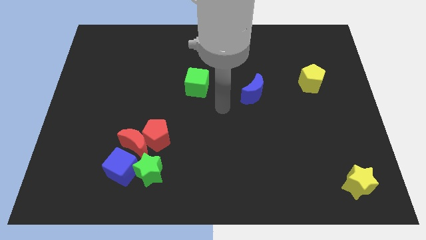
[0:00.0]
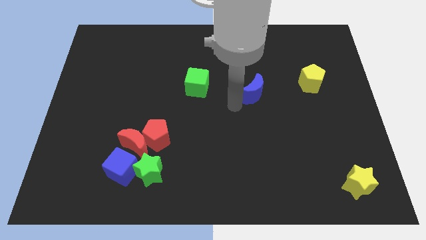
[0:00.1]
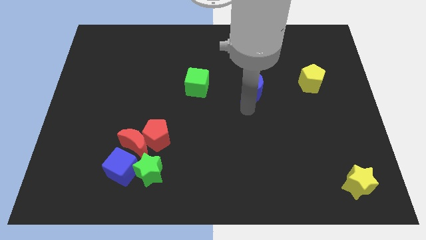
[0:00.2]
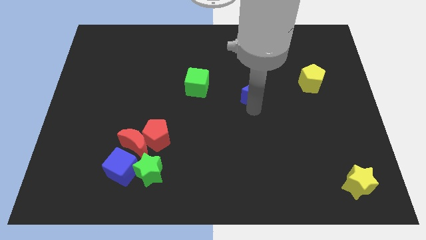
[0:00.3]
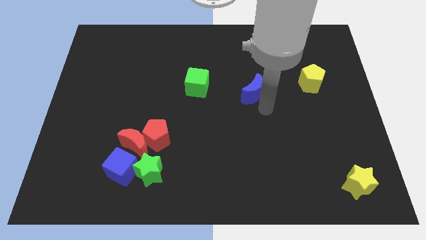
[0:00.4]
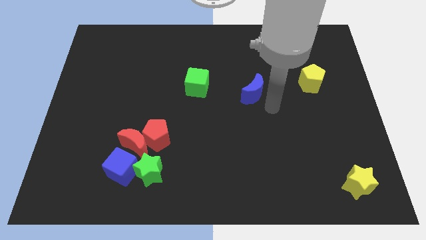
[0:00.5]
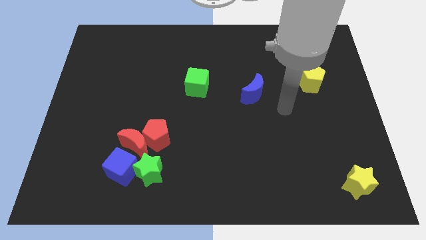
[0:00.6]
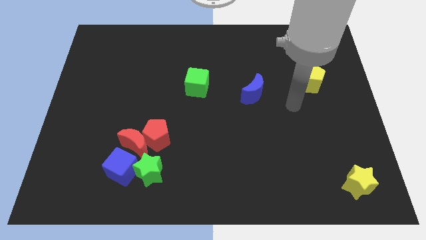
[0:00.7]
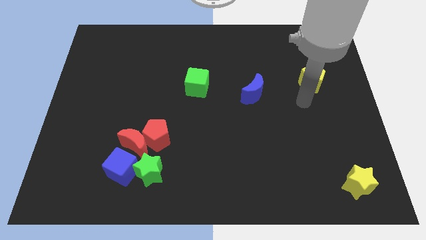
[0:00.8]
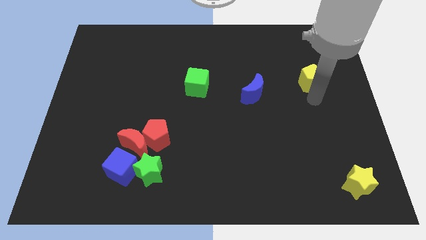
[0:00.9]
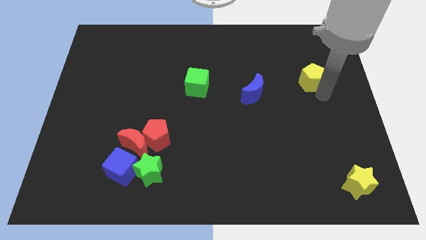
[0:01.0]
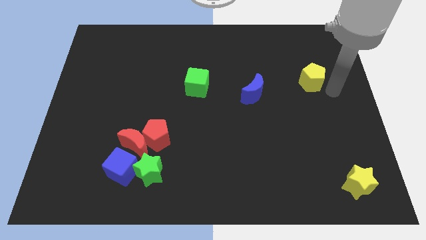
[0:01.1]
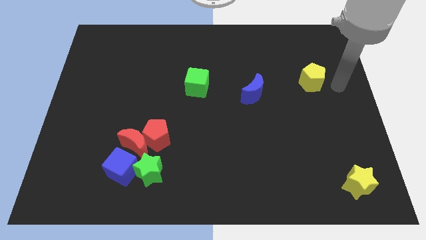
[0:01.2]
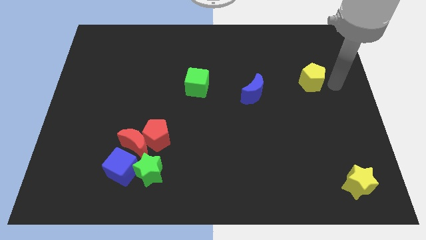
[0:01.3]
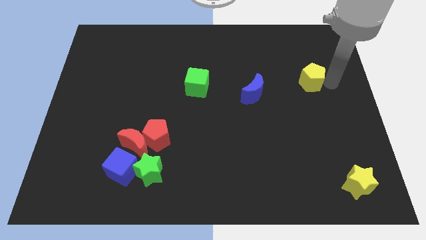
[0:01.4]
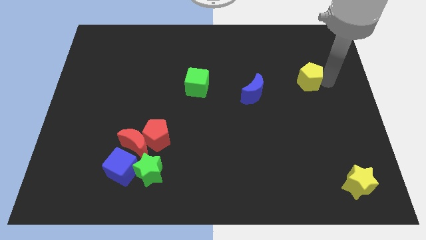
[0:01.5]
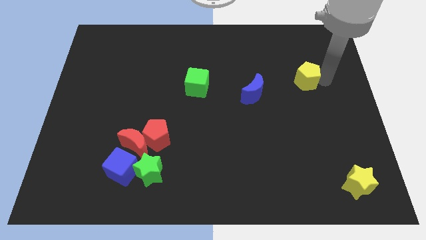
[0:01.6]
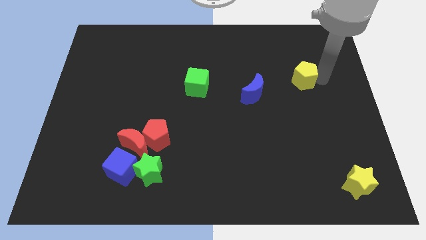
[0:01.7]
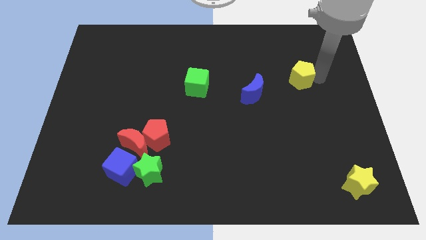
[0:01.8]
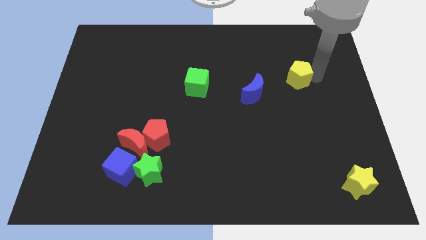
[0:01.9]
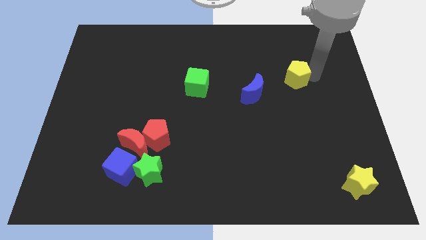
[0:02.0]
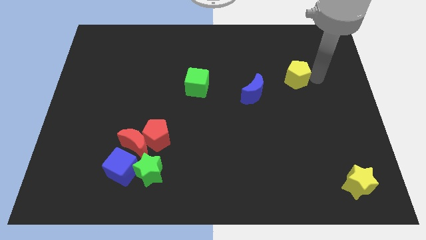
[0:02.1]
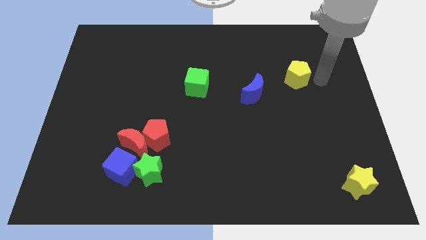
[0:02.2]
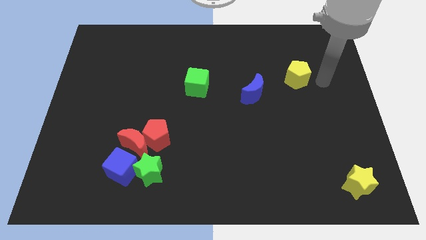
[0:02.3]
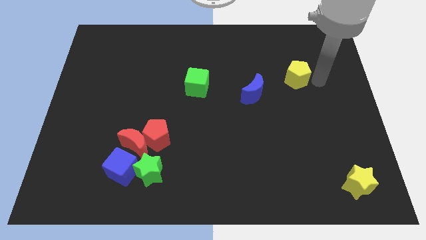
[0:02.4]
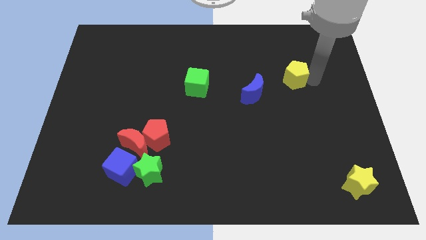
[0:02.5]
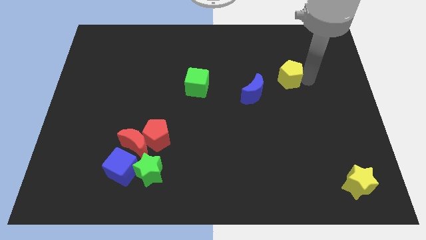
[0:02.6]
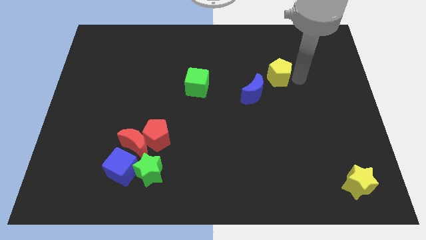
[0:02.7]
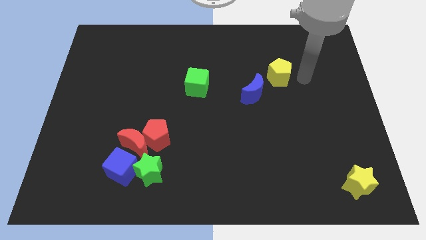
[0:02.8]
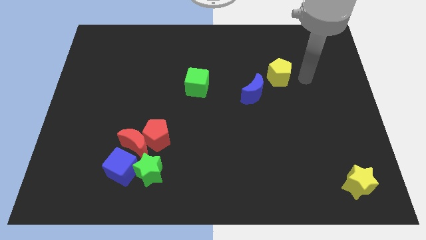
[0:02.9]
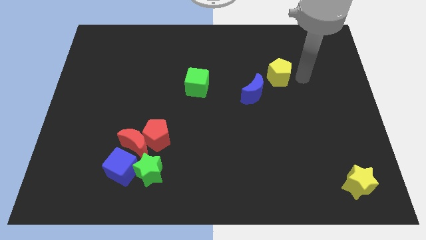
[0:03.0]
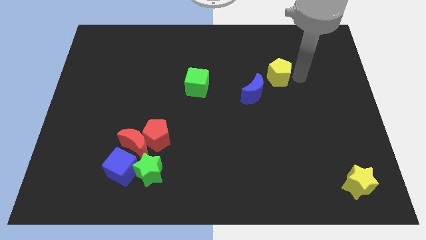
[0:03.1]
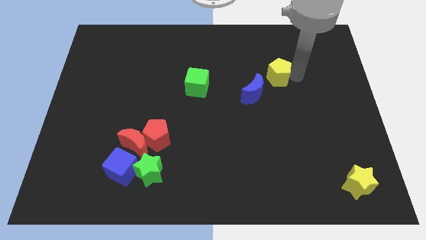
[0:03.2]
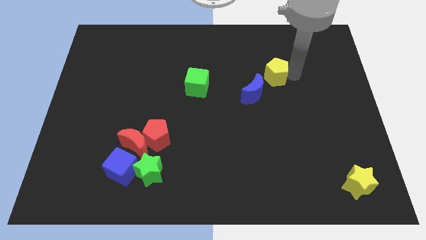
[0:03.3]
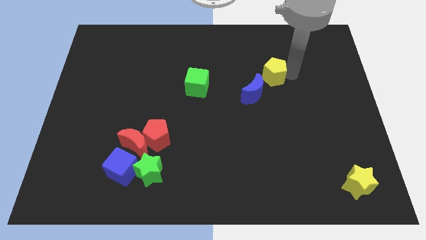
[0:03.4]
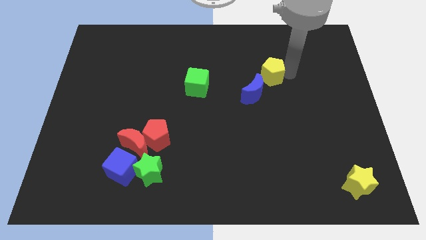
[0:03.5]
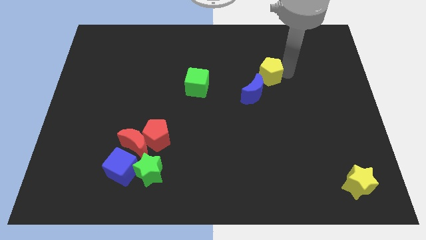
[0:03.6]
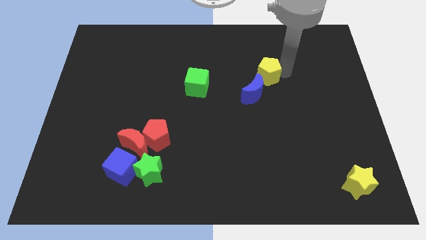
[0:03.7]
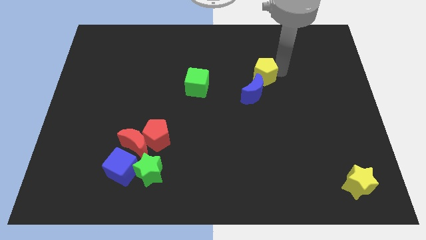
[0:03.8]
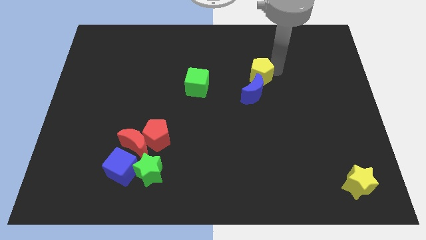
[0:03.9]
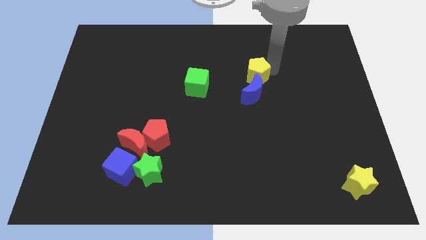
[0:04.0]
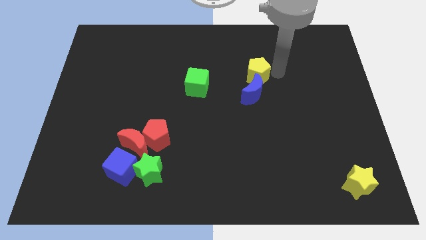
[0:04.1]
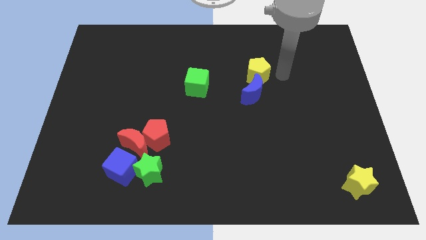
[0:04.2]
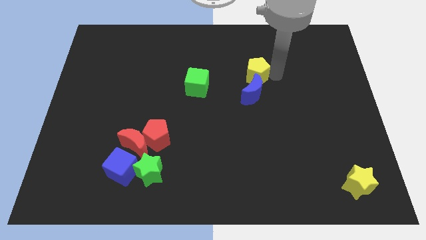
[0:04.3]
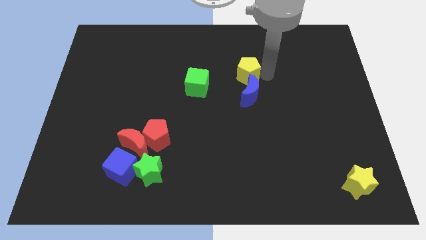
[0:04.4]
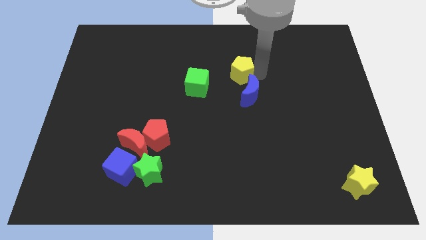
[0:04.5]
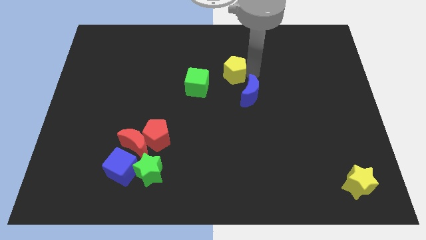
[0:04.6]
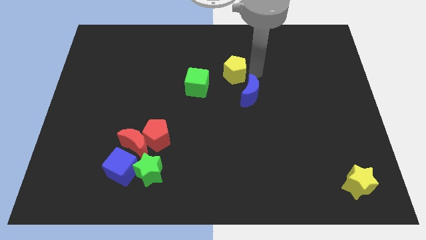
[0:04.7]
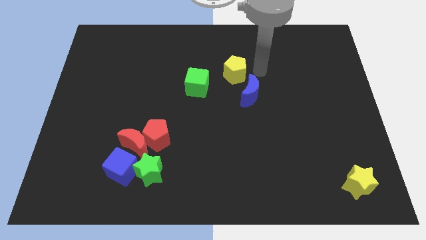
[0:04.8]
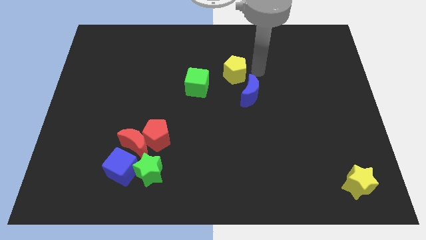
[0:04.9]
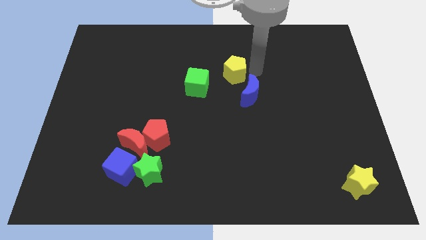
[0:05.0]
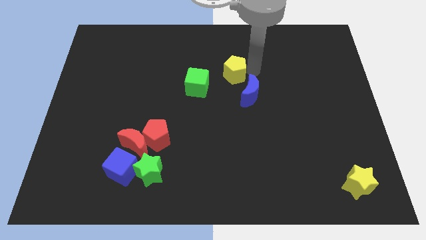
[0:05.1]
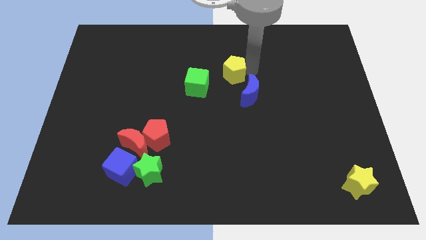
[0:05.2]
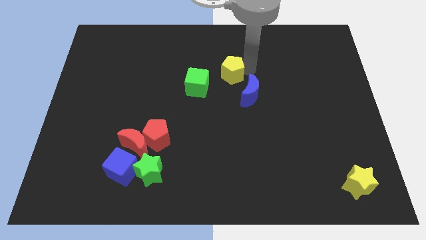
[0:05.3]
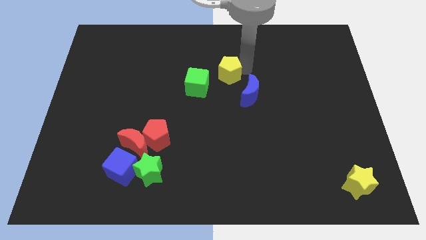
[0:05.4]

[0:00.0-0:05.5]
slide the yellow pentagon to the left

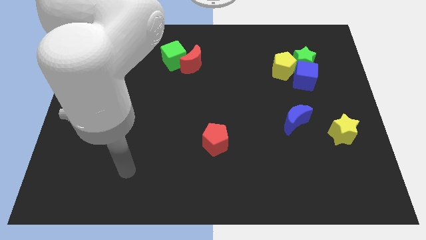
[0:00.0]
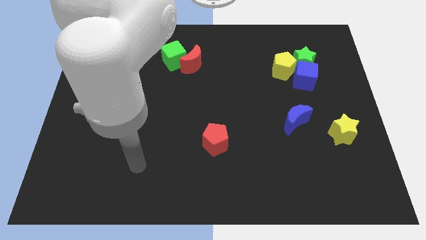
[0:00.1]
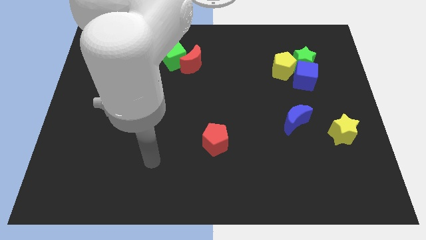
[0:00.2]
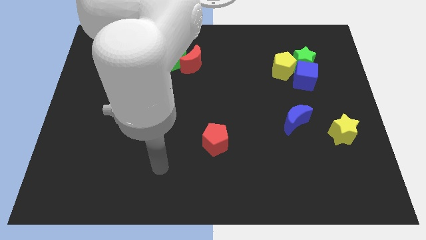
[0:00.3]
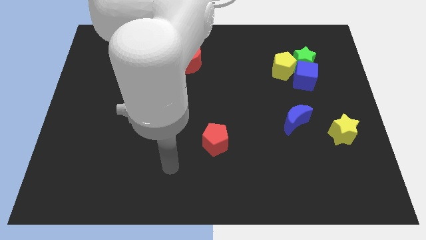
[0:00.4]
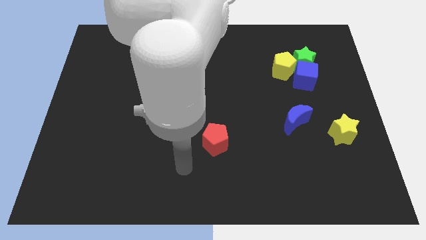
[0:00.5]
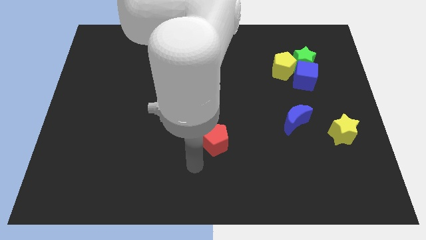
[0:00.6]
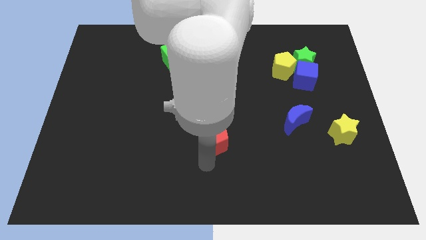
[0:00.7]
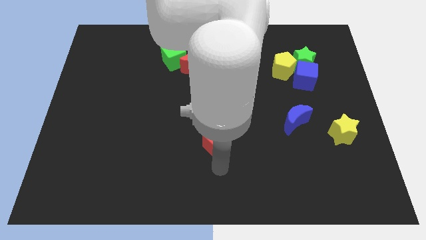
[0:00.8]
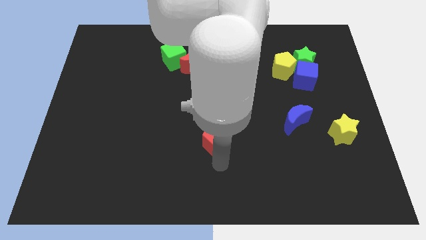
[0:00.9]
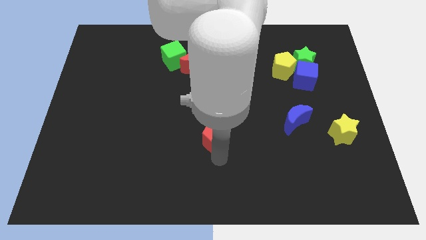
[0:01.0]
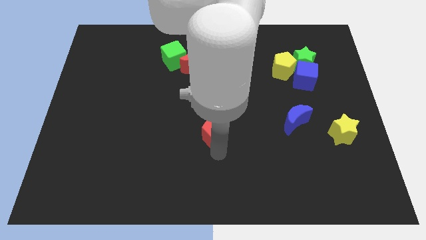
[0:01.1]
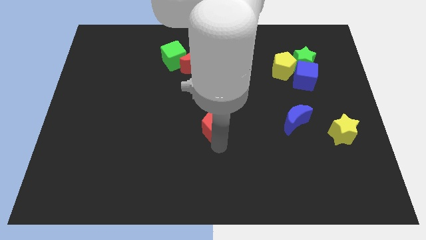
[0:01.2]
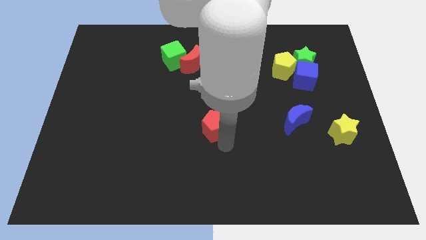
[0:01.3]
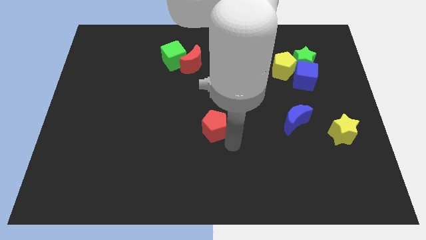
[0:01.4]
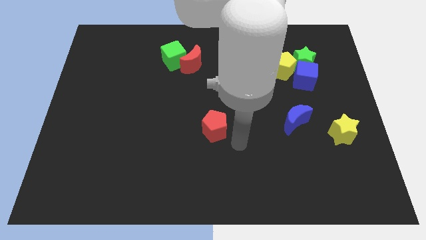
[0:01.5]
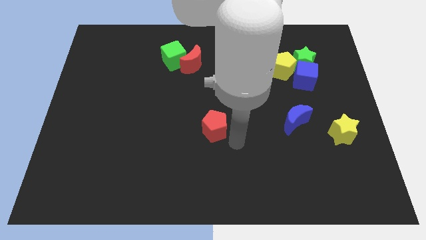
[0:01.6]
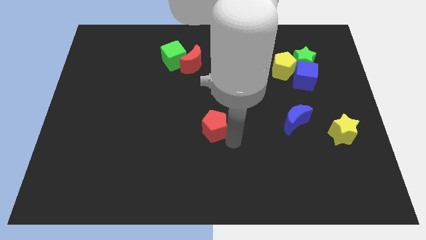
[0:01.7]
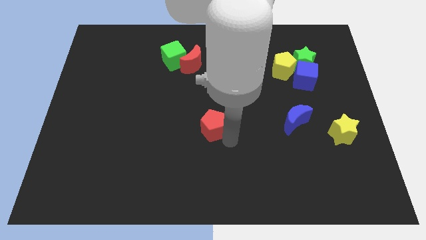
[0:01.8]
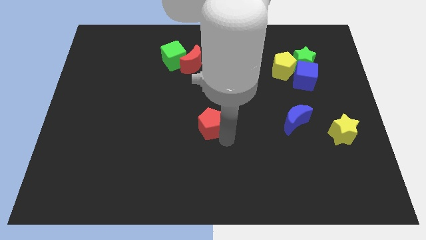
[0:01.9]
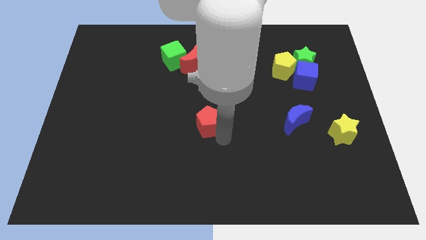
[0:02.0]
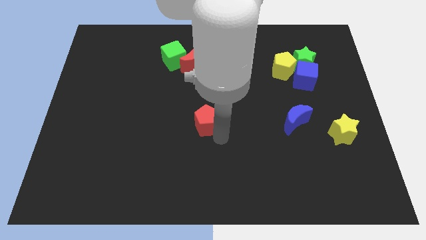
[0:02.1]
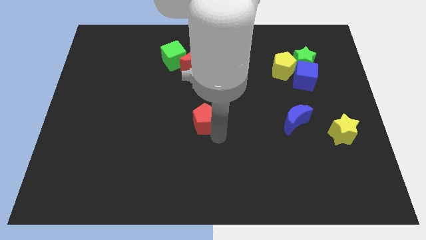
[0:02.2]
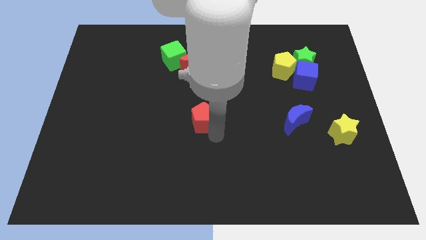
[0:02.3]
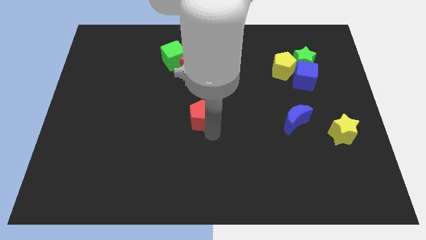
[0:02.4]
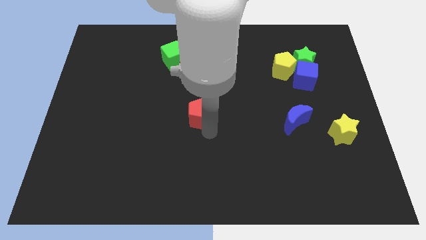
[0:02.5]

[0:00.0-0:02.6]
slightly slide the red pentagon diagonally up and to the left

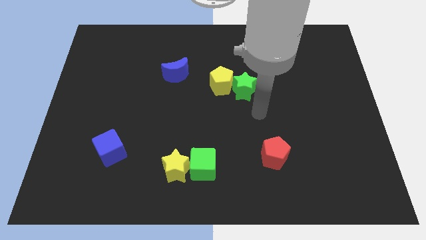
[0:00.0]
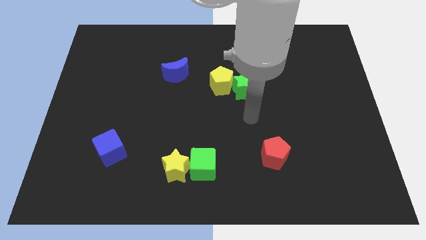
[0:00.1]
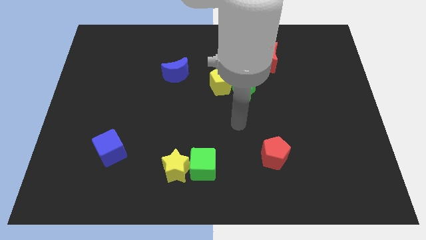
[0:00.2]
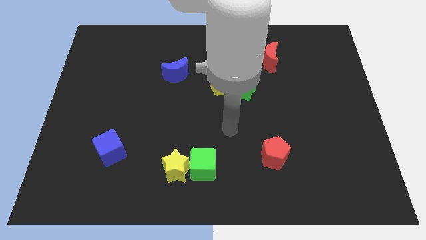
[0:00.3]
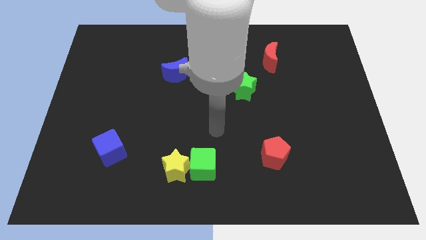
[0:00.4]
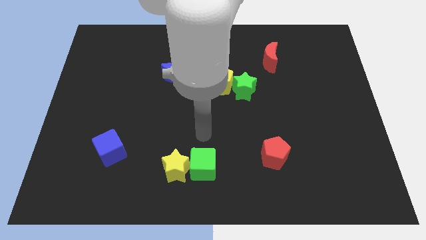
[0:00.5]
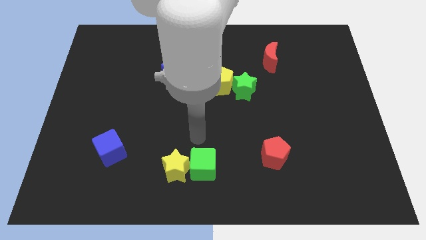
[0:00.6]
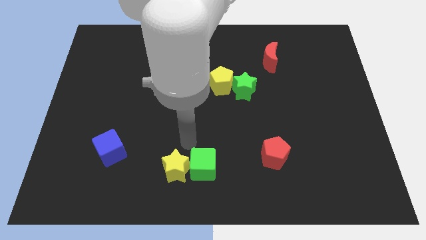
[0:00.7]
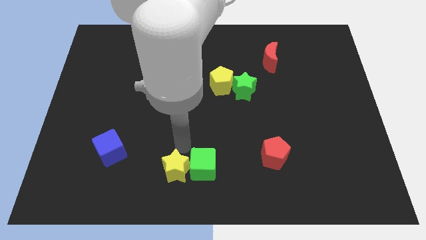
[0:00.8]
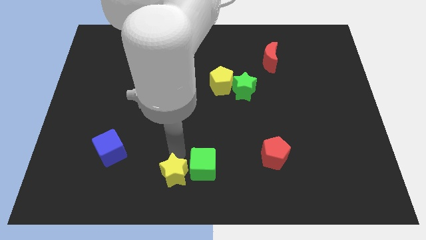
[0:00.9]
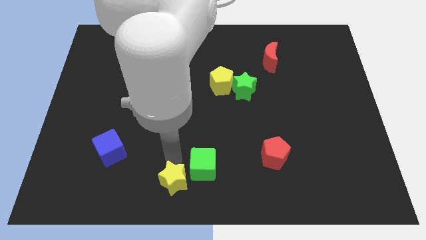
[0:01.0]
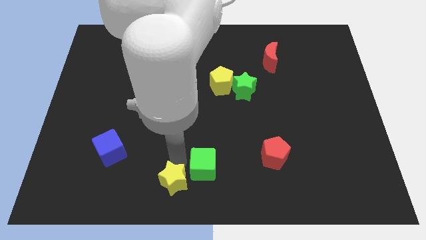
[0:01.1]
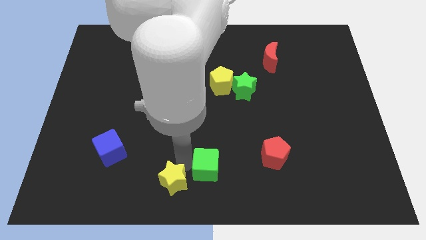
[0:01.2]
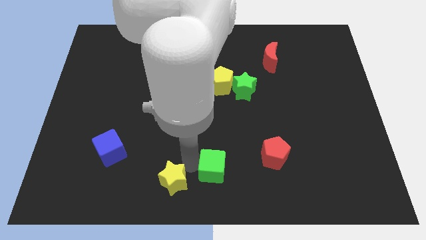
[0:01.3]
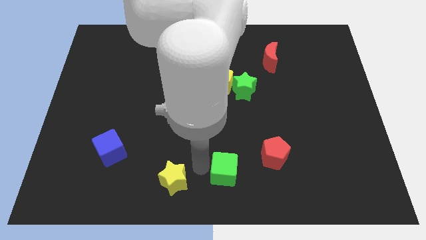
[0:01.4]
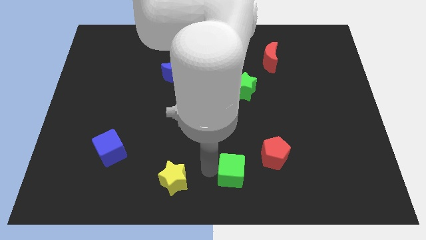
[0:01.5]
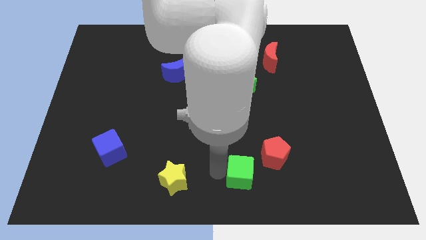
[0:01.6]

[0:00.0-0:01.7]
slide the green cube to the right somewhat
